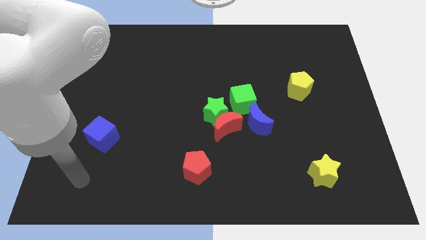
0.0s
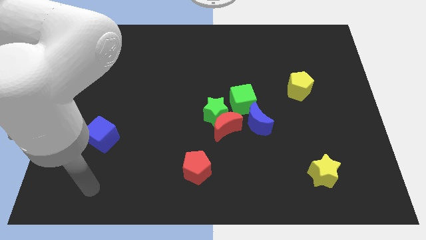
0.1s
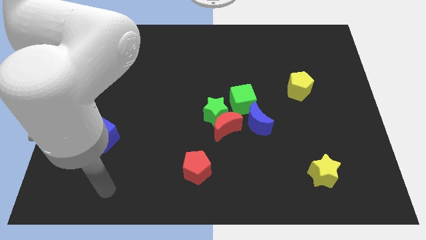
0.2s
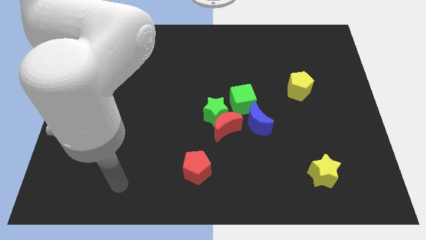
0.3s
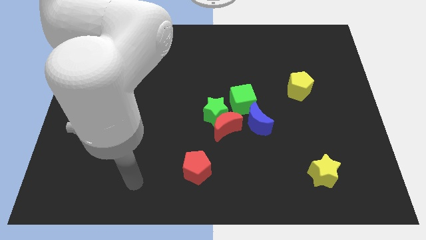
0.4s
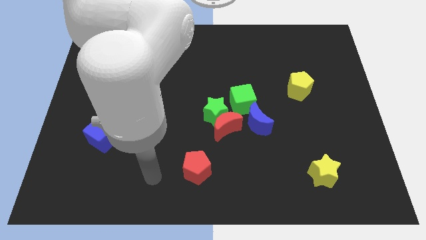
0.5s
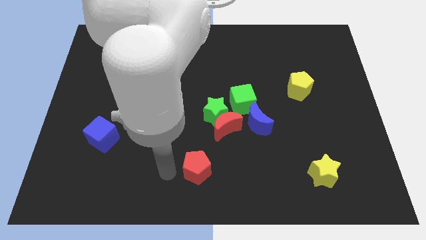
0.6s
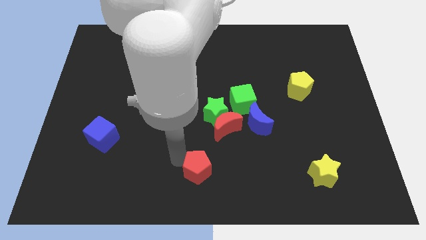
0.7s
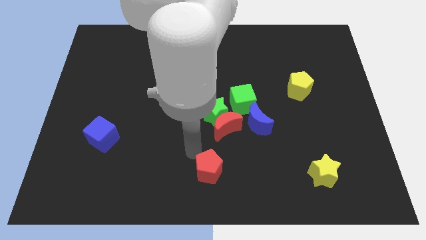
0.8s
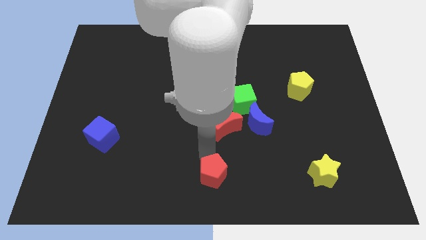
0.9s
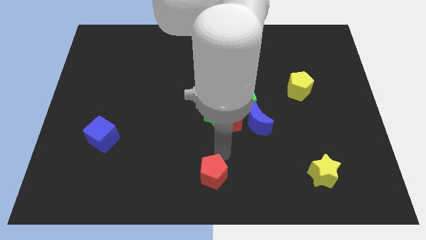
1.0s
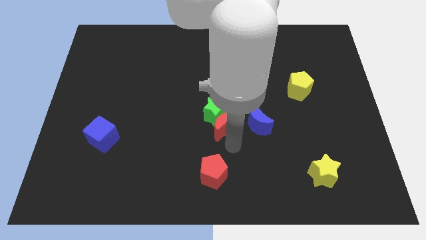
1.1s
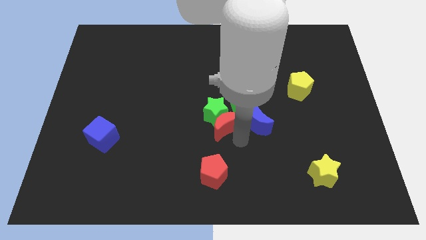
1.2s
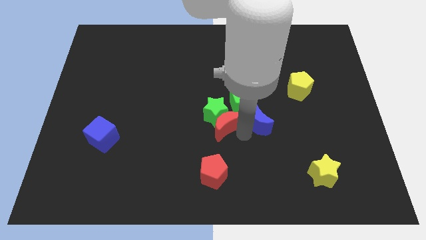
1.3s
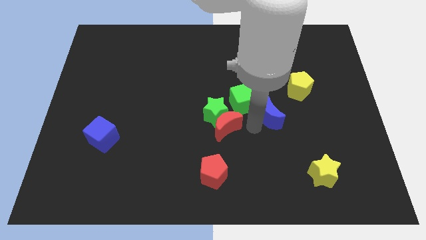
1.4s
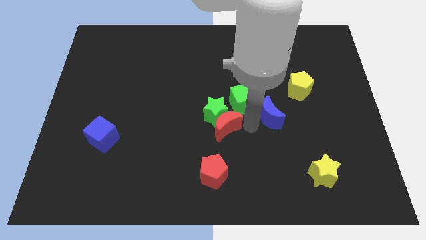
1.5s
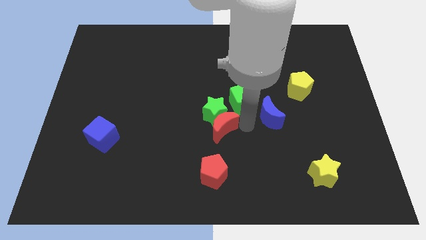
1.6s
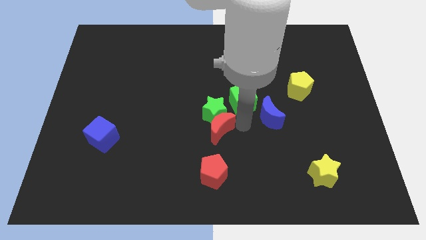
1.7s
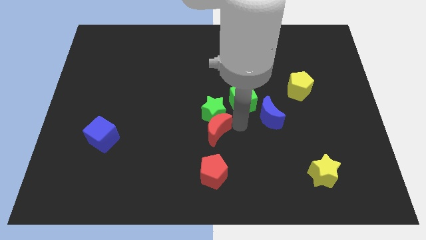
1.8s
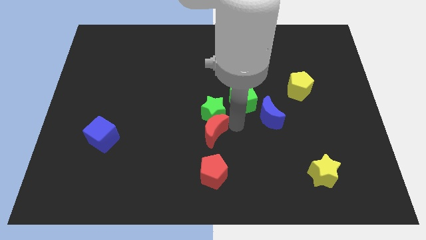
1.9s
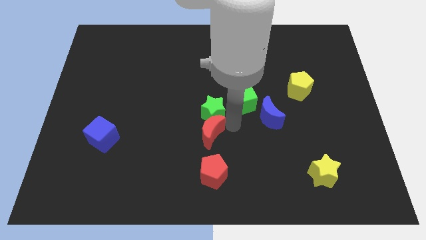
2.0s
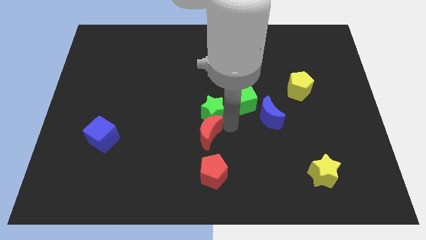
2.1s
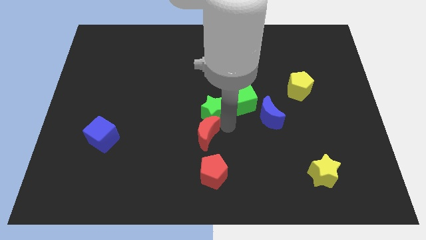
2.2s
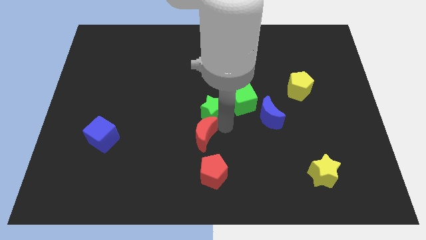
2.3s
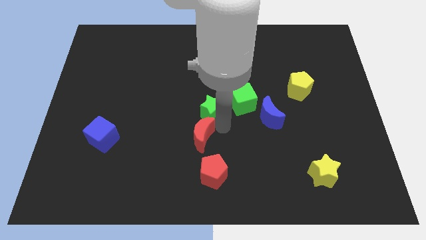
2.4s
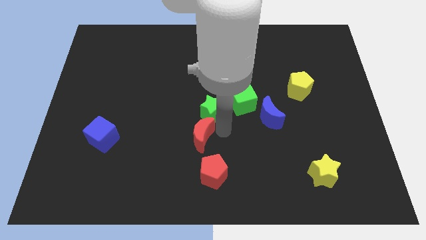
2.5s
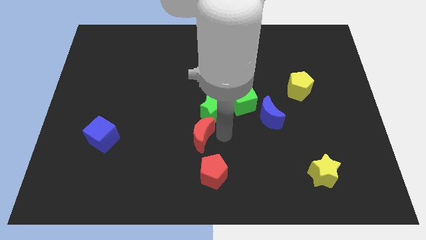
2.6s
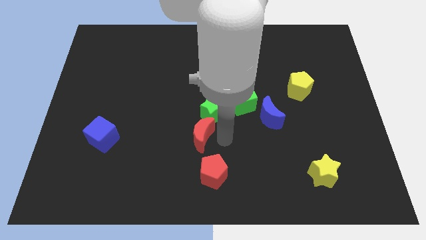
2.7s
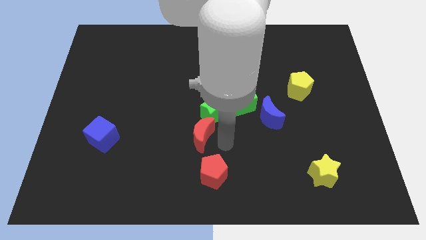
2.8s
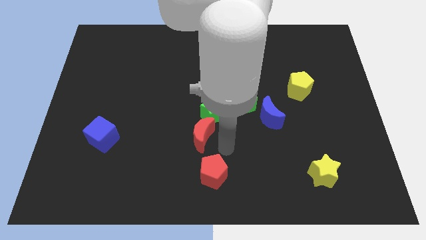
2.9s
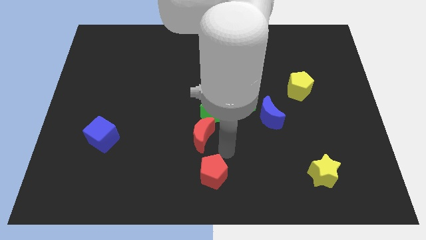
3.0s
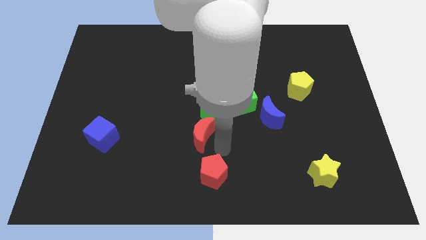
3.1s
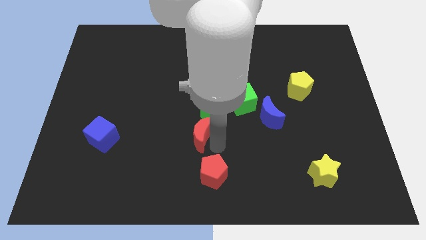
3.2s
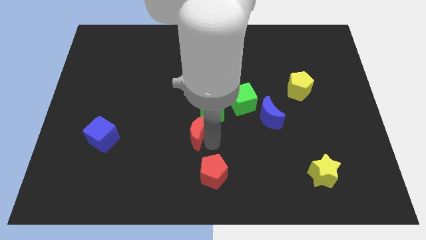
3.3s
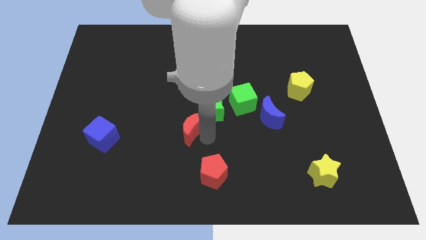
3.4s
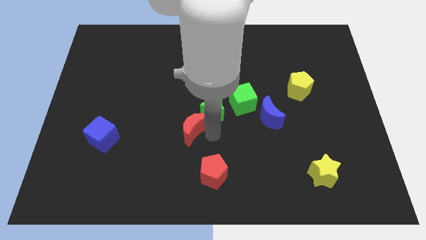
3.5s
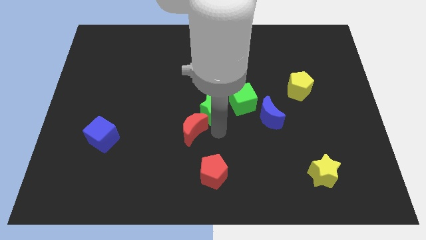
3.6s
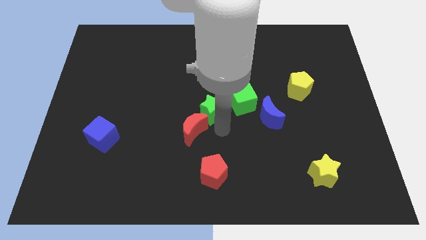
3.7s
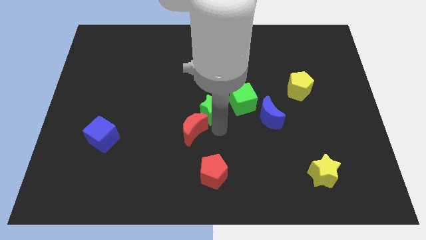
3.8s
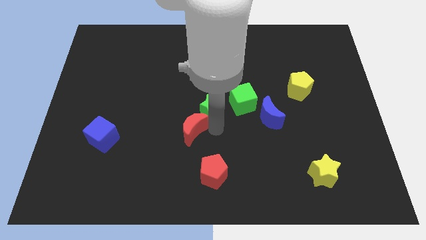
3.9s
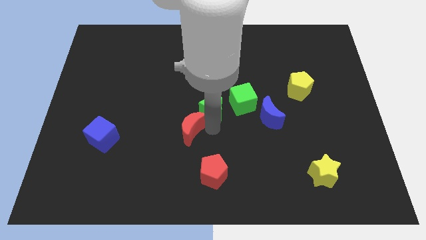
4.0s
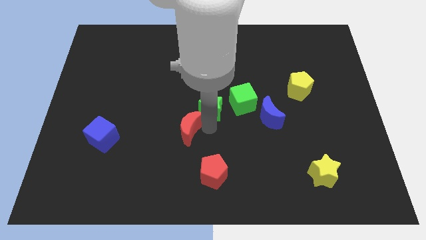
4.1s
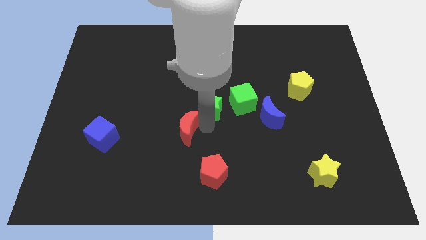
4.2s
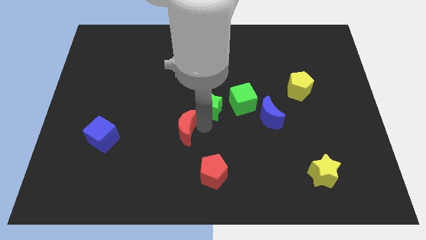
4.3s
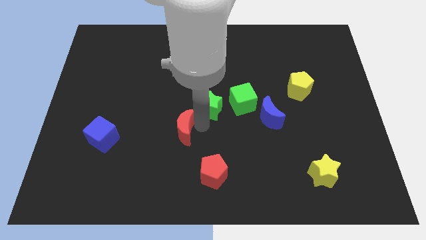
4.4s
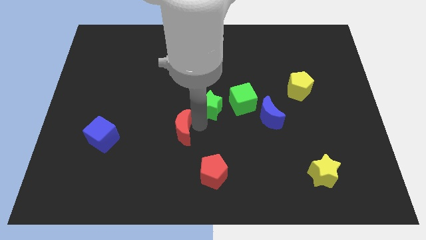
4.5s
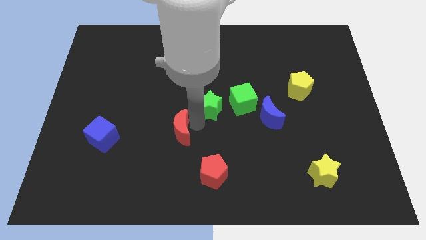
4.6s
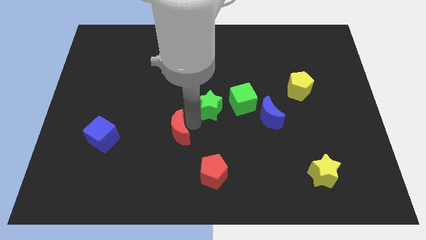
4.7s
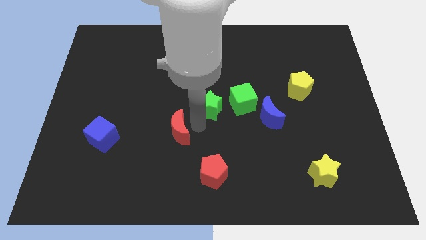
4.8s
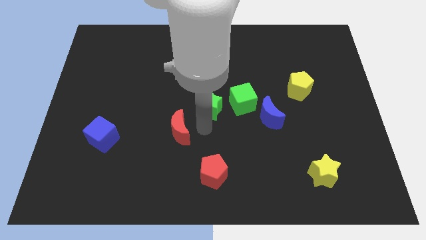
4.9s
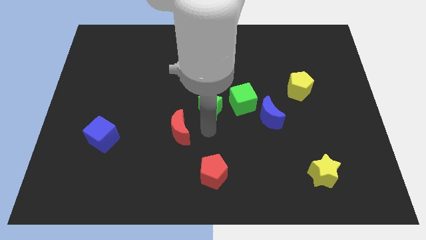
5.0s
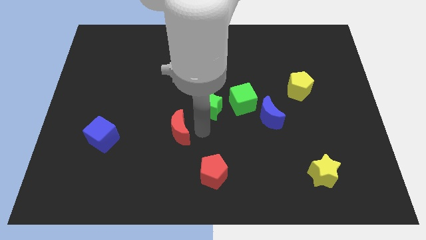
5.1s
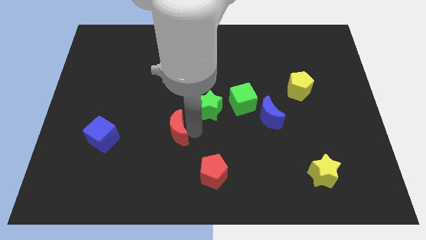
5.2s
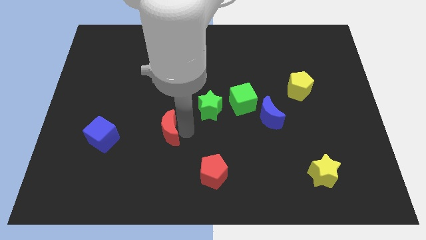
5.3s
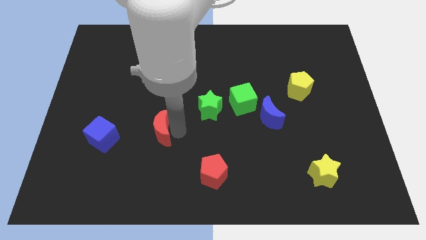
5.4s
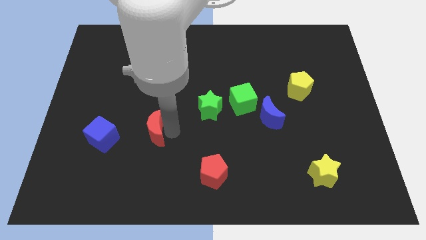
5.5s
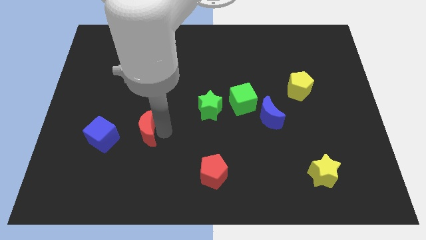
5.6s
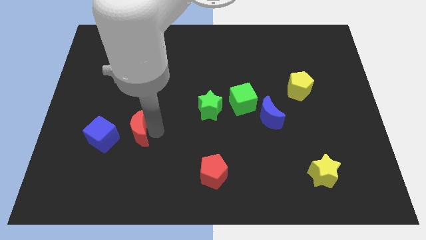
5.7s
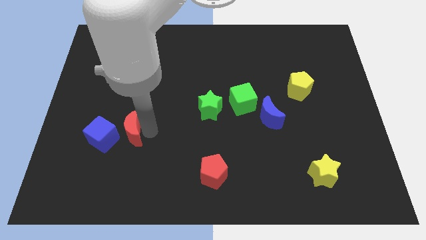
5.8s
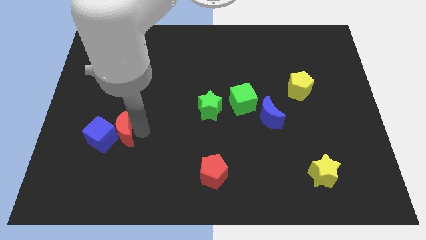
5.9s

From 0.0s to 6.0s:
push the red moon close to the blue cube

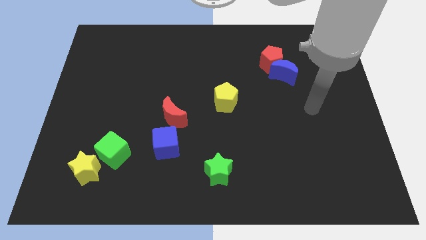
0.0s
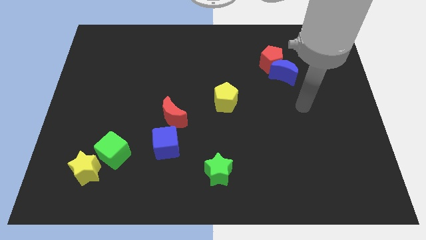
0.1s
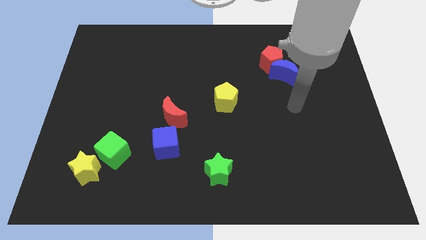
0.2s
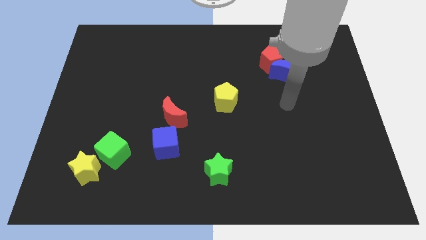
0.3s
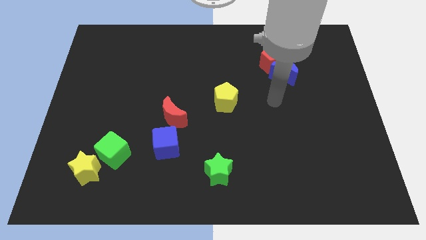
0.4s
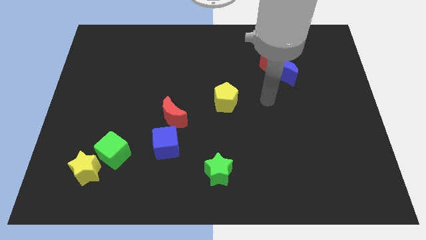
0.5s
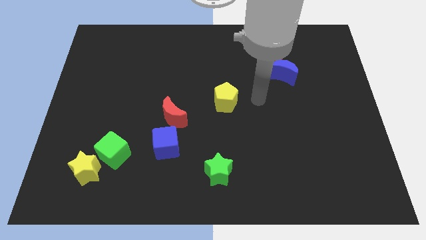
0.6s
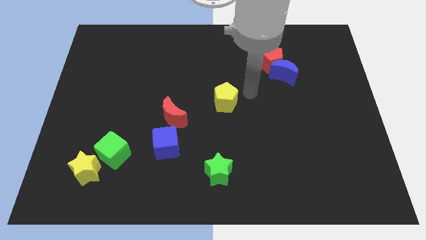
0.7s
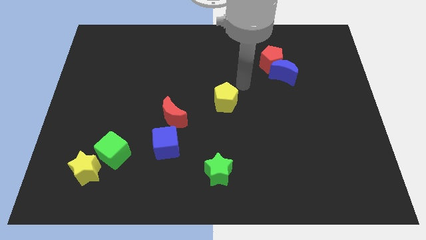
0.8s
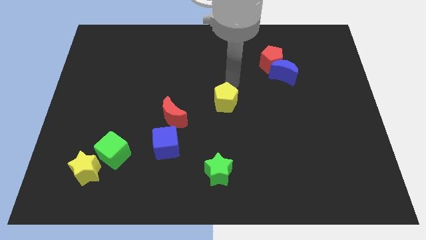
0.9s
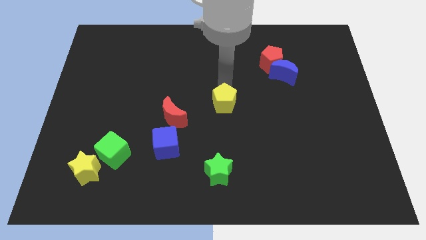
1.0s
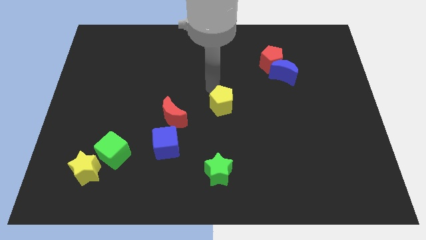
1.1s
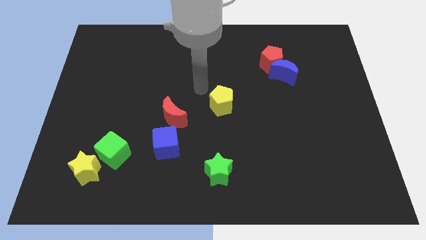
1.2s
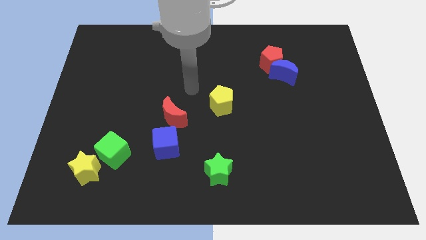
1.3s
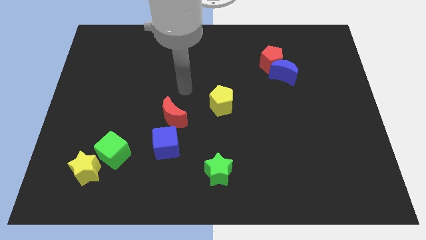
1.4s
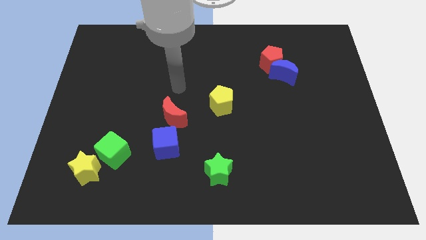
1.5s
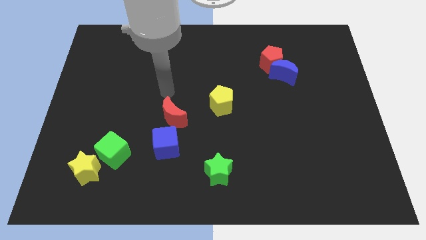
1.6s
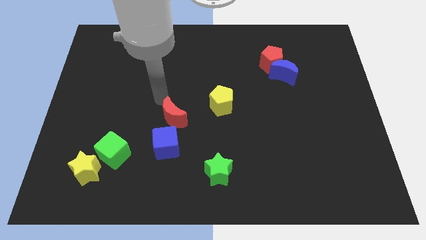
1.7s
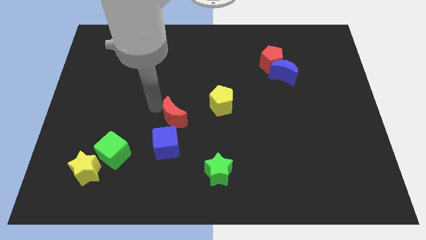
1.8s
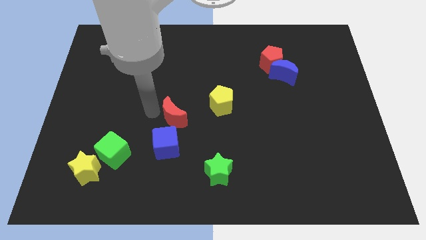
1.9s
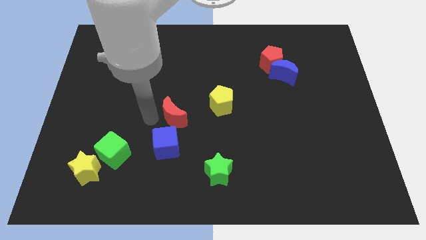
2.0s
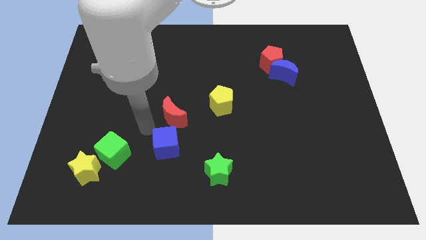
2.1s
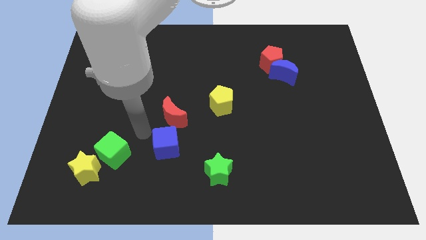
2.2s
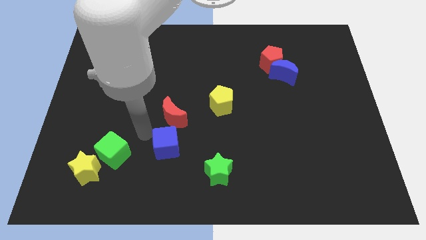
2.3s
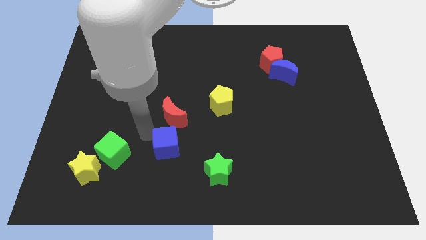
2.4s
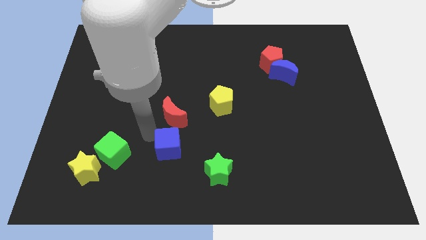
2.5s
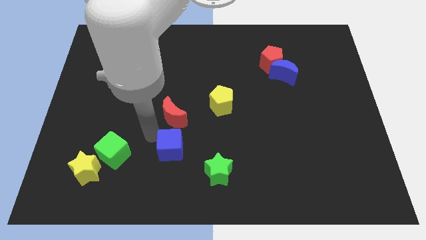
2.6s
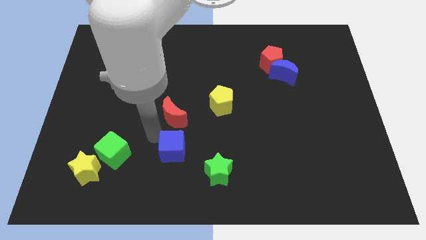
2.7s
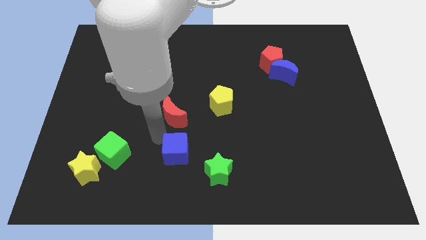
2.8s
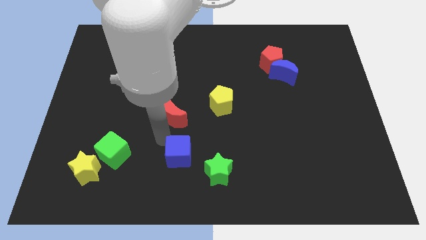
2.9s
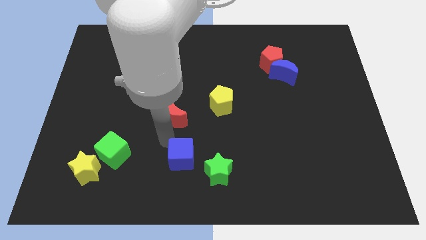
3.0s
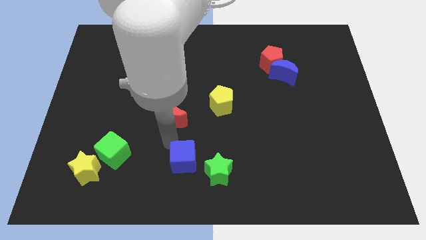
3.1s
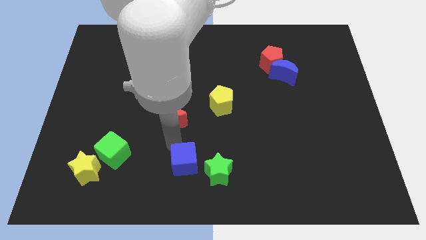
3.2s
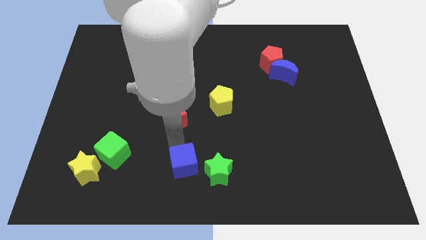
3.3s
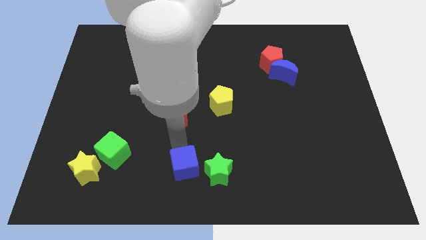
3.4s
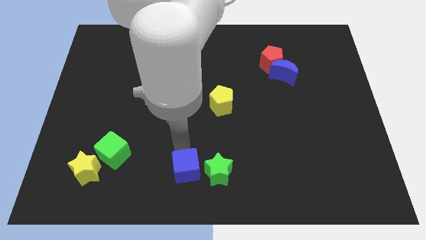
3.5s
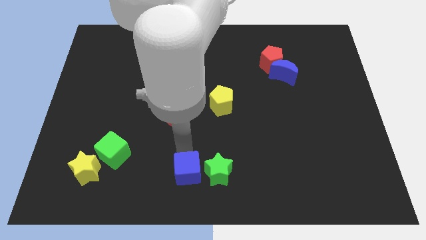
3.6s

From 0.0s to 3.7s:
move the blue cube to the green star
